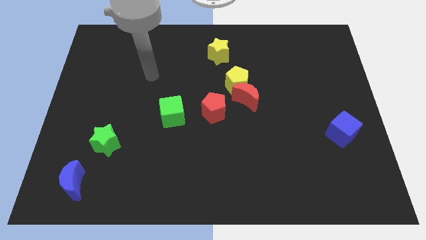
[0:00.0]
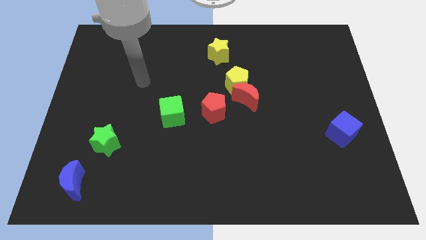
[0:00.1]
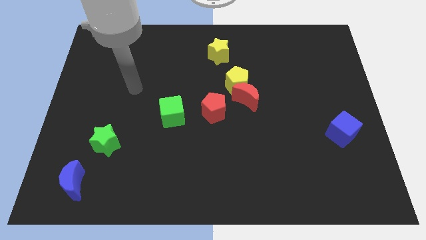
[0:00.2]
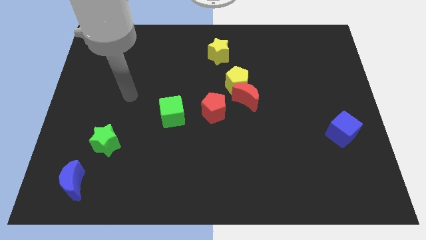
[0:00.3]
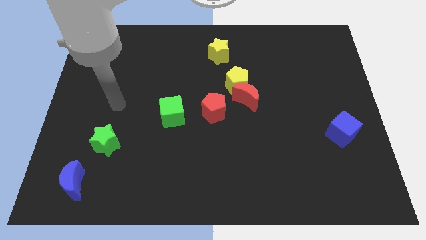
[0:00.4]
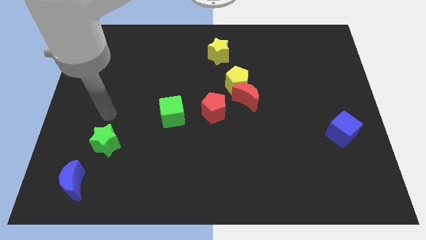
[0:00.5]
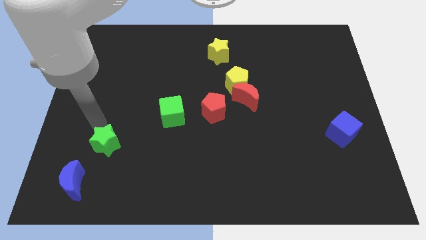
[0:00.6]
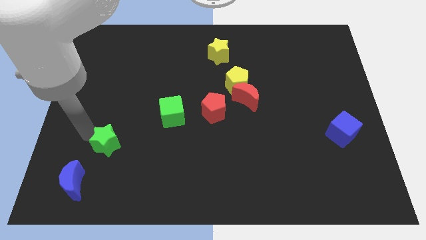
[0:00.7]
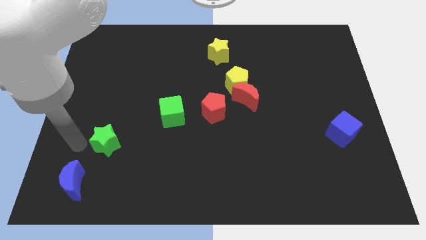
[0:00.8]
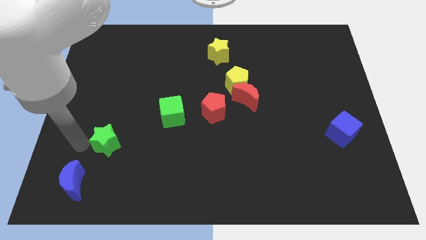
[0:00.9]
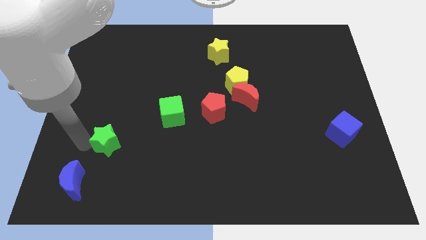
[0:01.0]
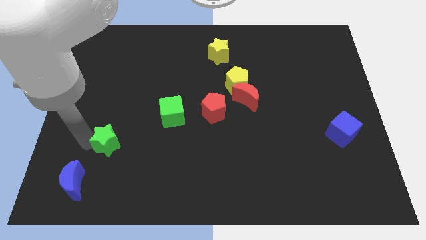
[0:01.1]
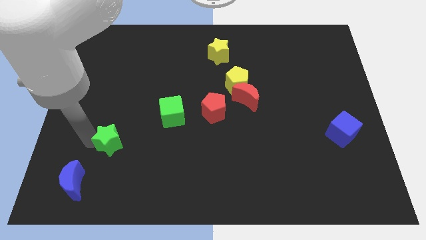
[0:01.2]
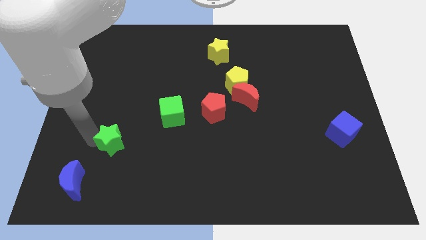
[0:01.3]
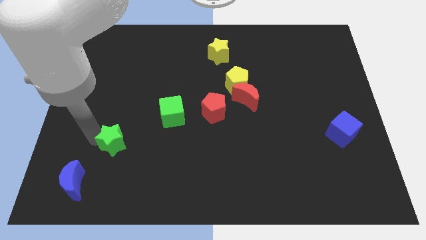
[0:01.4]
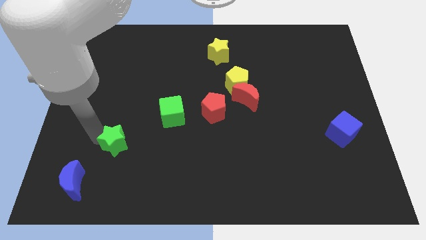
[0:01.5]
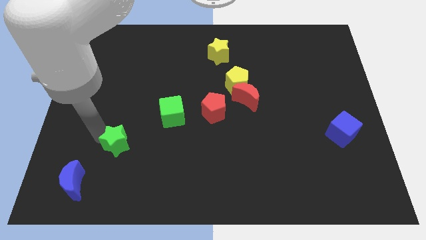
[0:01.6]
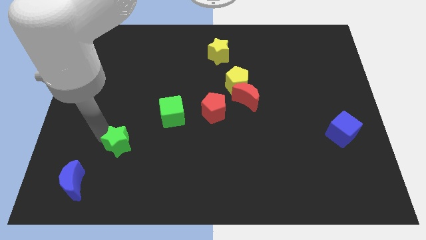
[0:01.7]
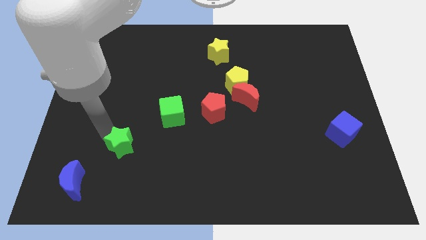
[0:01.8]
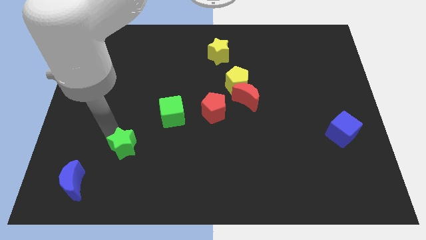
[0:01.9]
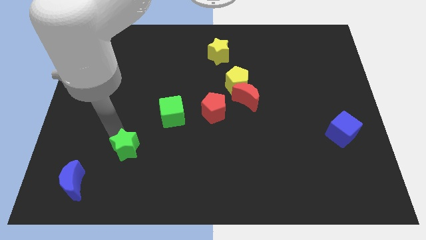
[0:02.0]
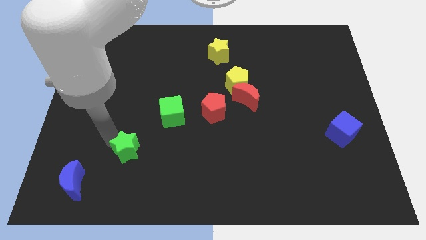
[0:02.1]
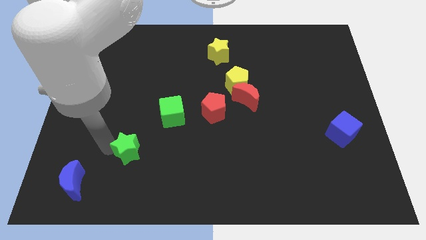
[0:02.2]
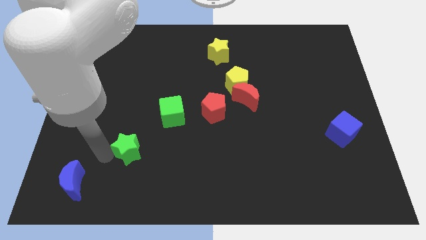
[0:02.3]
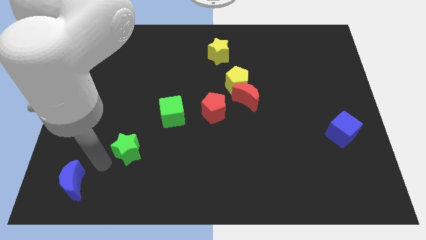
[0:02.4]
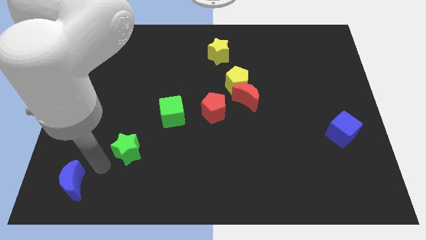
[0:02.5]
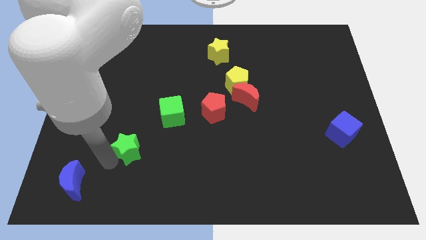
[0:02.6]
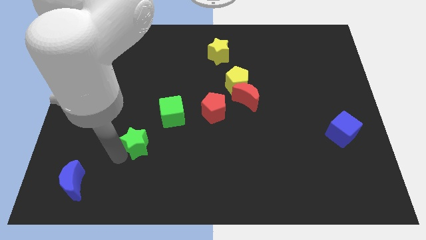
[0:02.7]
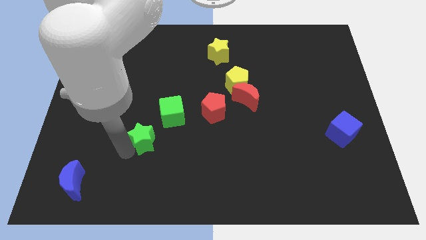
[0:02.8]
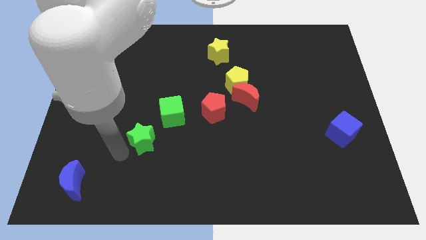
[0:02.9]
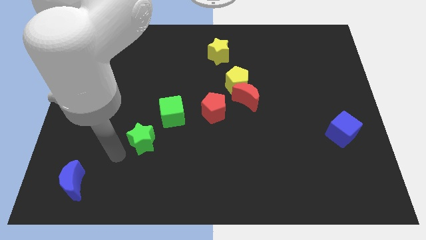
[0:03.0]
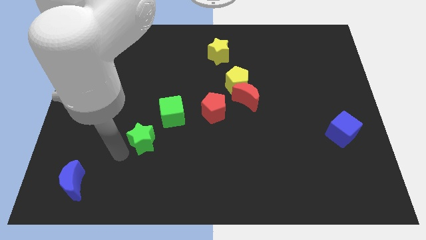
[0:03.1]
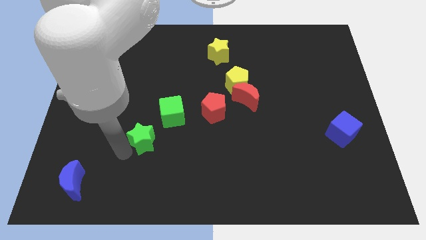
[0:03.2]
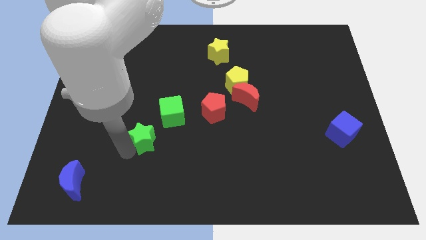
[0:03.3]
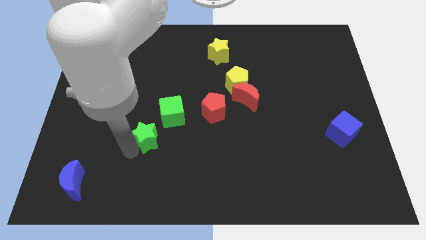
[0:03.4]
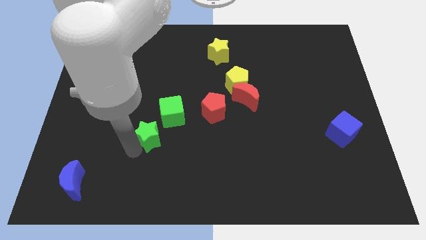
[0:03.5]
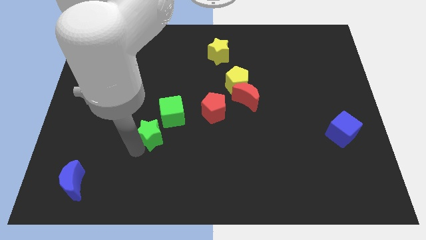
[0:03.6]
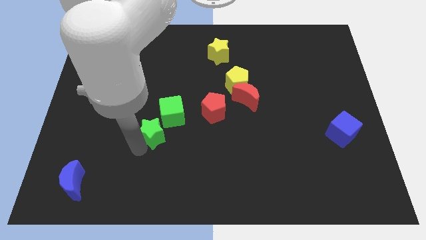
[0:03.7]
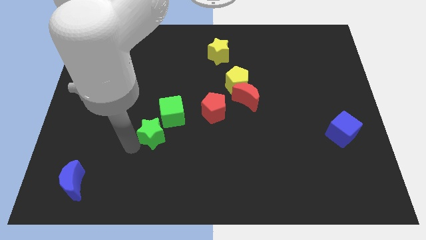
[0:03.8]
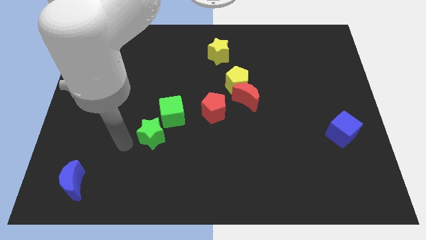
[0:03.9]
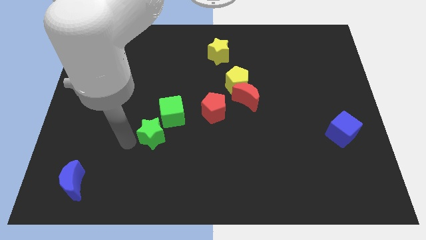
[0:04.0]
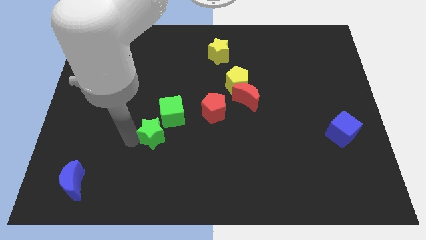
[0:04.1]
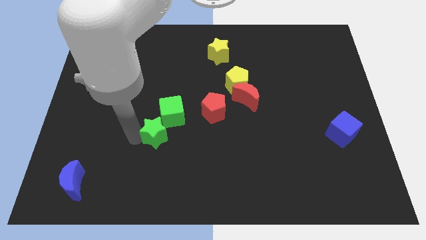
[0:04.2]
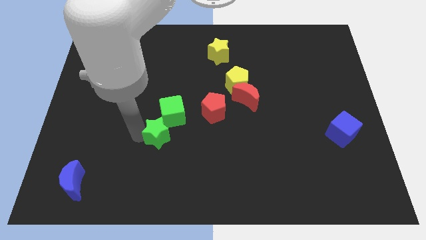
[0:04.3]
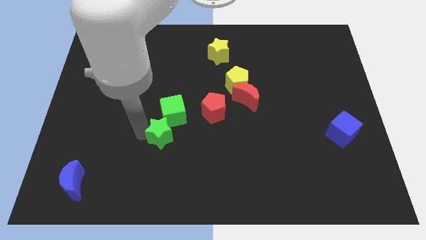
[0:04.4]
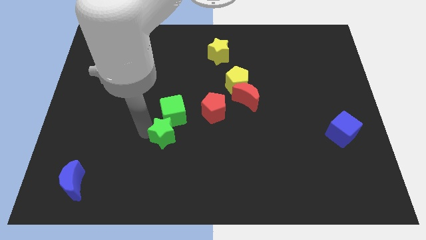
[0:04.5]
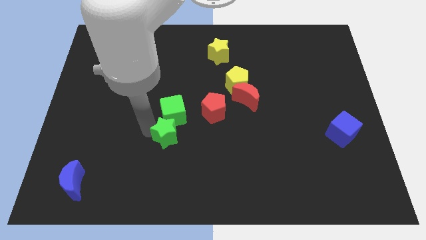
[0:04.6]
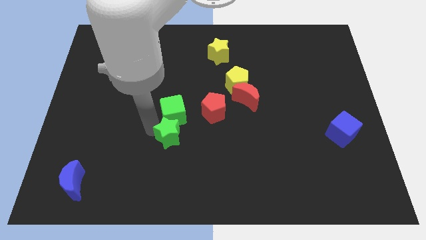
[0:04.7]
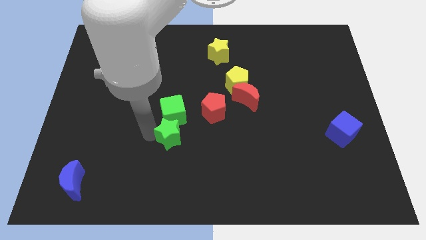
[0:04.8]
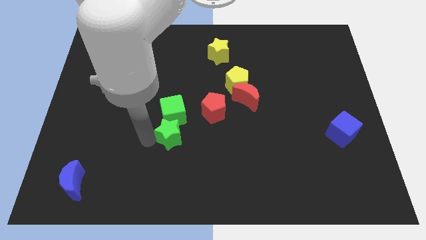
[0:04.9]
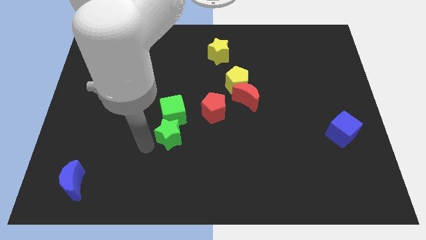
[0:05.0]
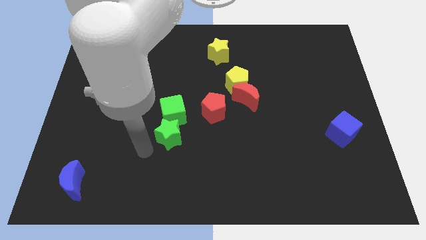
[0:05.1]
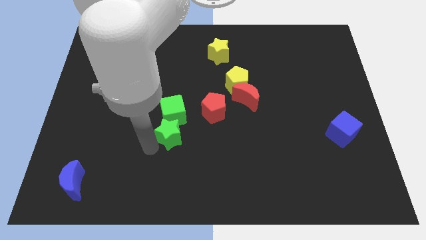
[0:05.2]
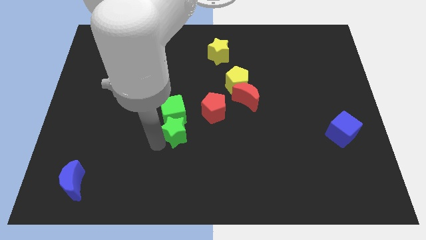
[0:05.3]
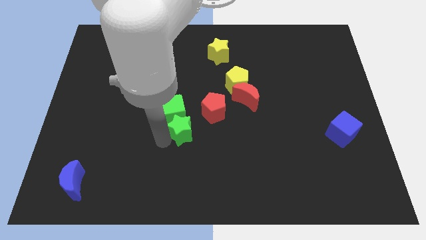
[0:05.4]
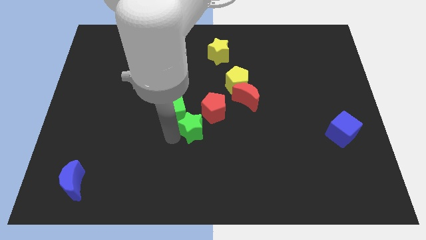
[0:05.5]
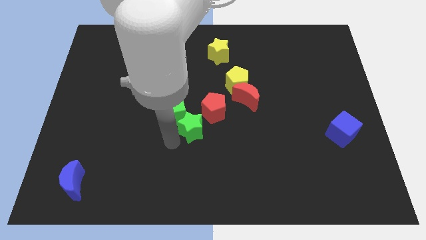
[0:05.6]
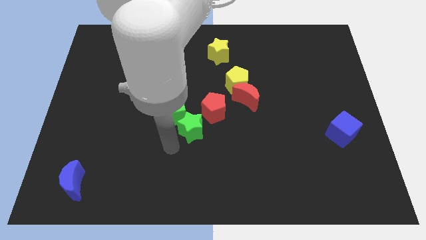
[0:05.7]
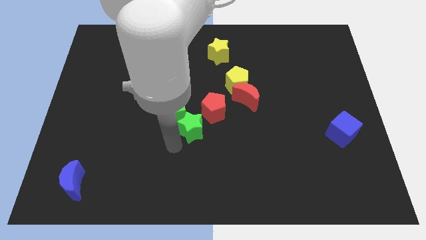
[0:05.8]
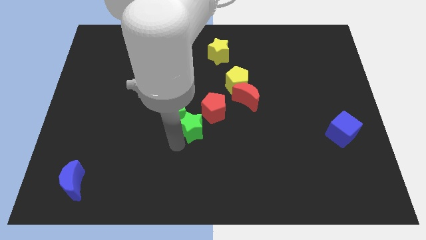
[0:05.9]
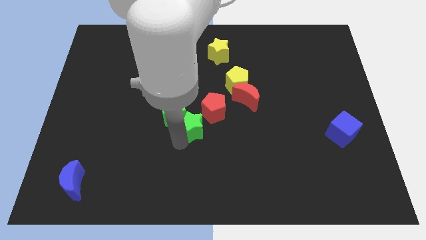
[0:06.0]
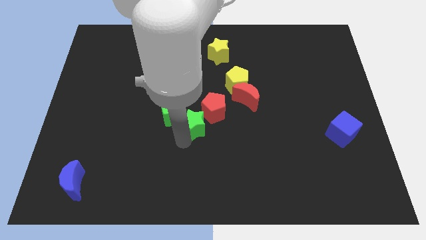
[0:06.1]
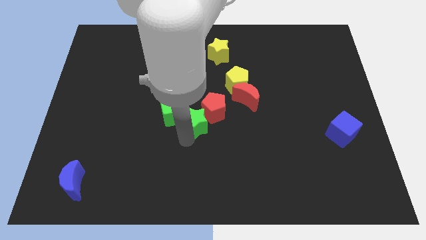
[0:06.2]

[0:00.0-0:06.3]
push the green star close to the red pentagon
